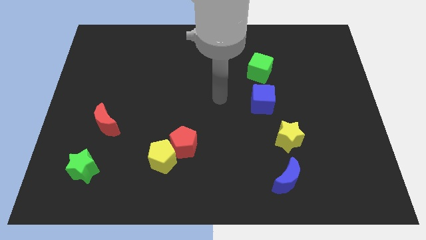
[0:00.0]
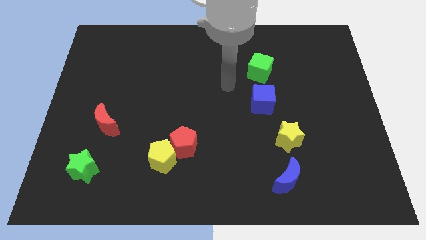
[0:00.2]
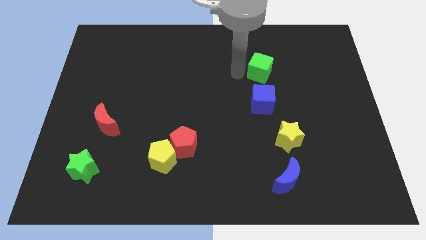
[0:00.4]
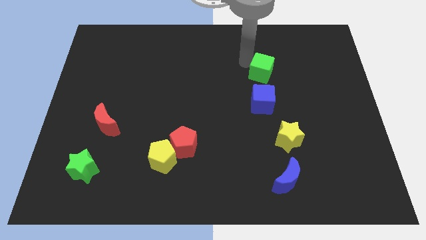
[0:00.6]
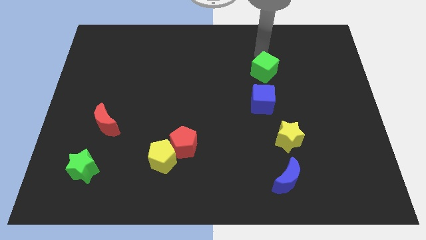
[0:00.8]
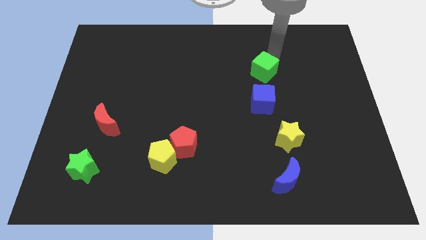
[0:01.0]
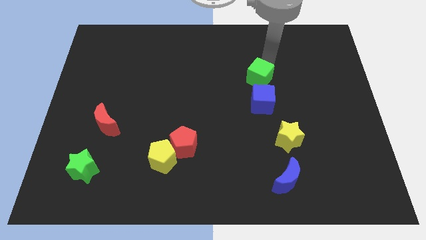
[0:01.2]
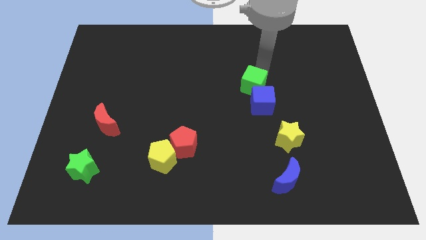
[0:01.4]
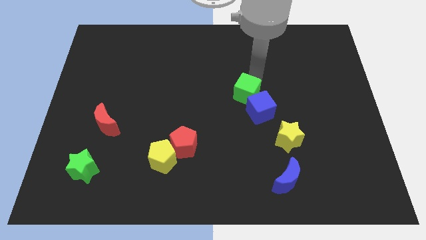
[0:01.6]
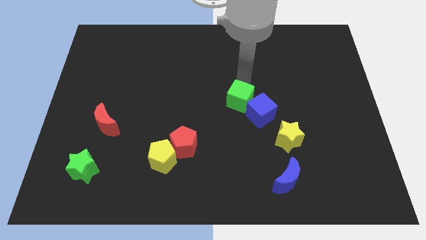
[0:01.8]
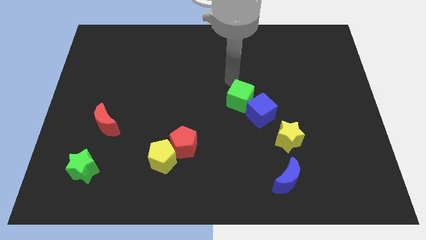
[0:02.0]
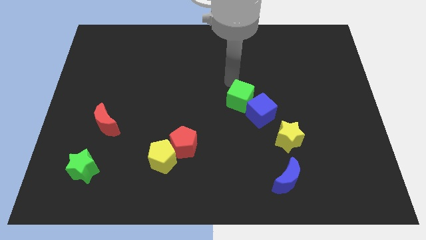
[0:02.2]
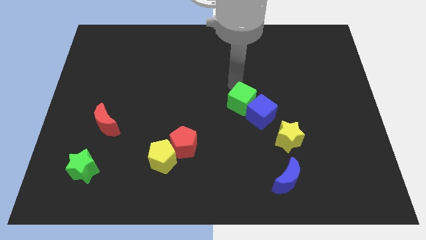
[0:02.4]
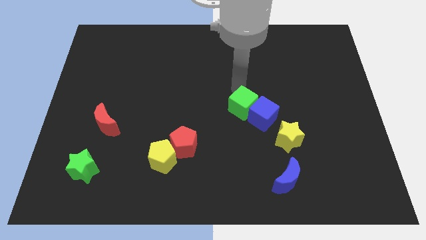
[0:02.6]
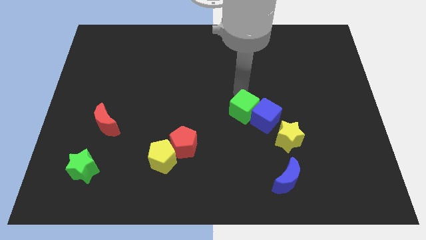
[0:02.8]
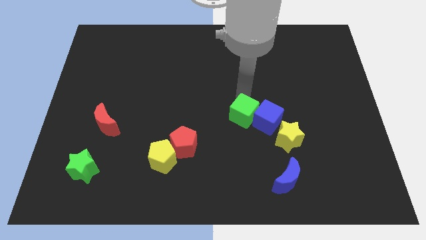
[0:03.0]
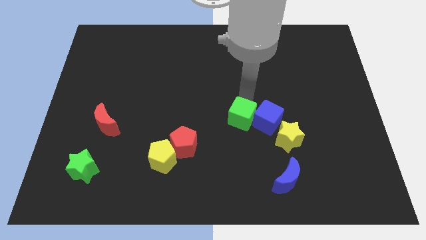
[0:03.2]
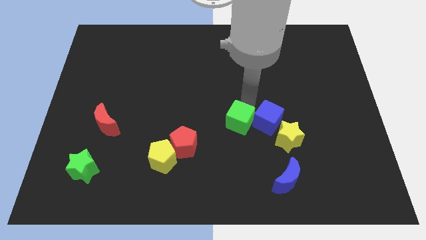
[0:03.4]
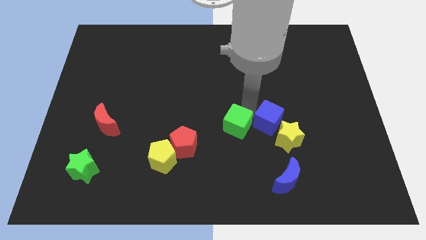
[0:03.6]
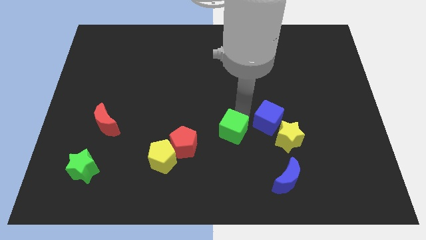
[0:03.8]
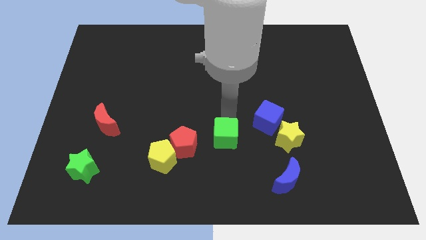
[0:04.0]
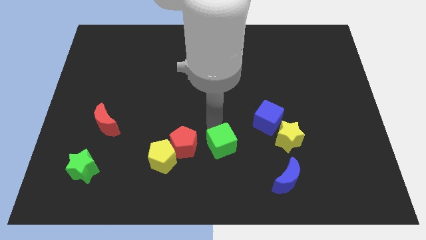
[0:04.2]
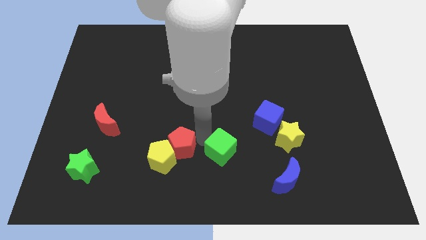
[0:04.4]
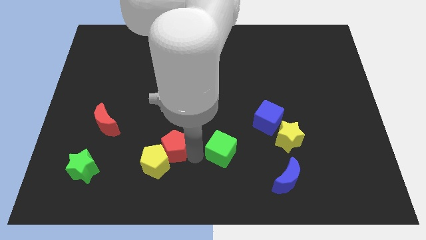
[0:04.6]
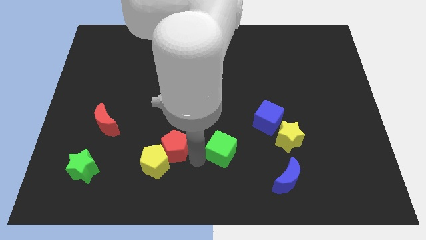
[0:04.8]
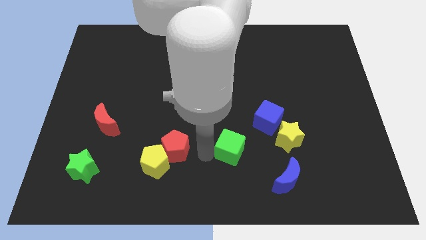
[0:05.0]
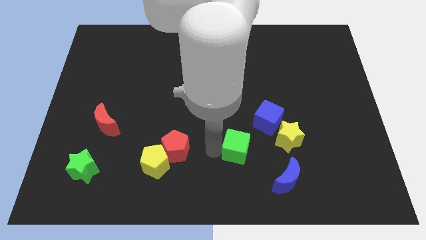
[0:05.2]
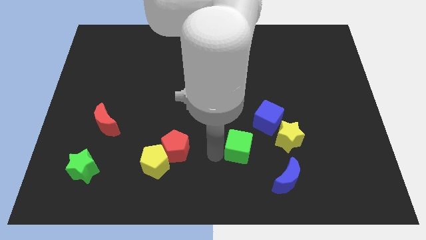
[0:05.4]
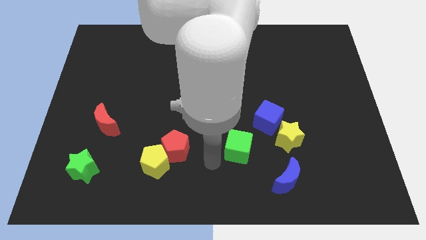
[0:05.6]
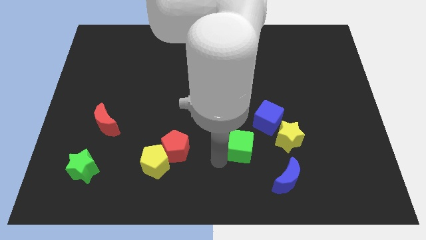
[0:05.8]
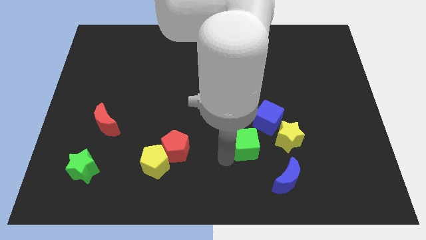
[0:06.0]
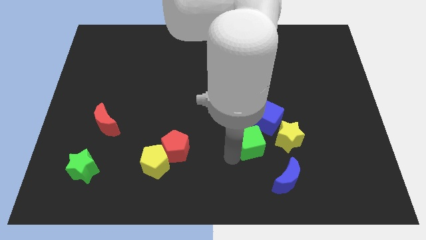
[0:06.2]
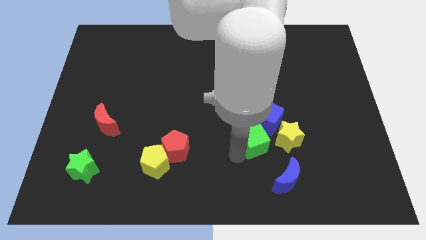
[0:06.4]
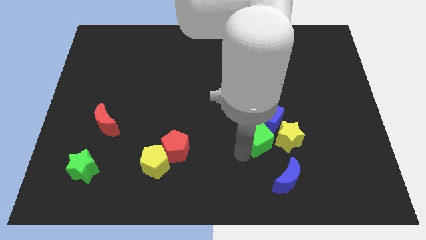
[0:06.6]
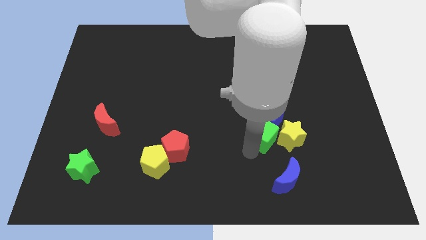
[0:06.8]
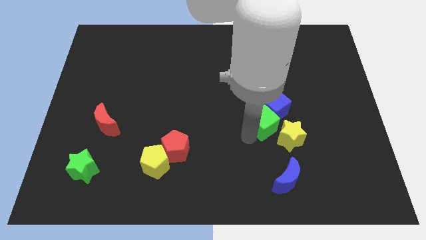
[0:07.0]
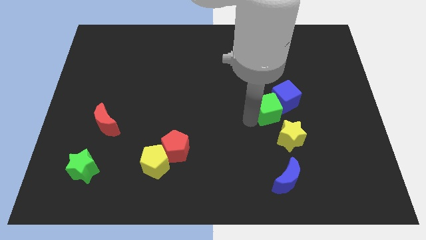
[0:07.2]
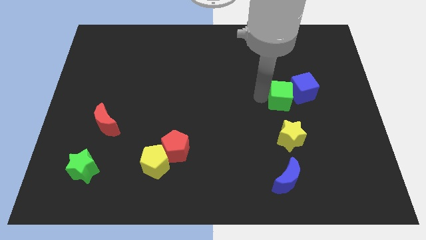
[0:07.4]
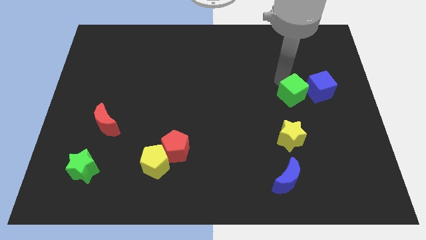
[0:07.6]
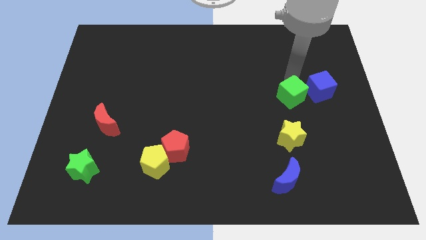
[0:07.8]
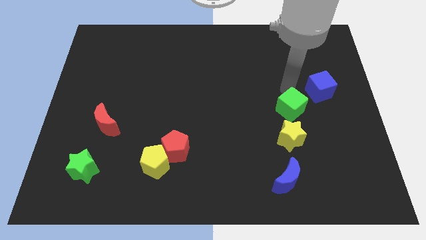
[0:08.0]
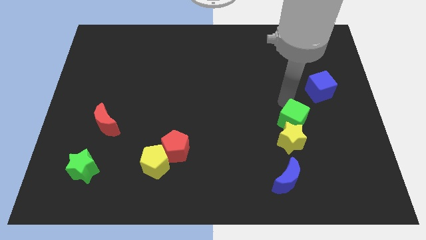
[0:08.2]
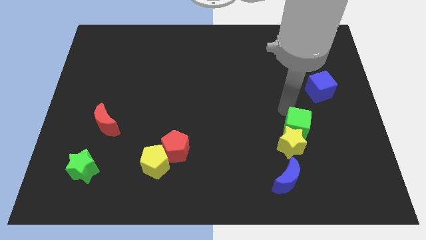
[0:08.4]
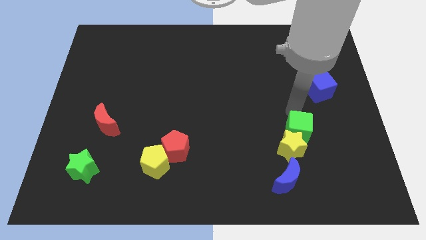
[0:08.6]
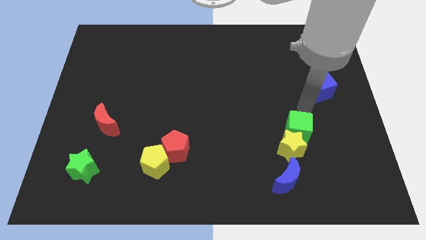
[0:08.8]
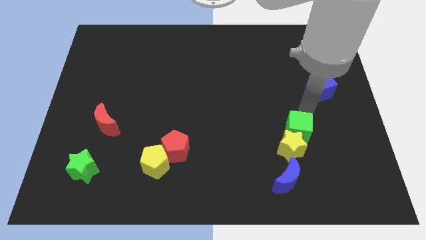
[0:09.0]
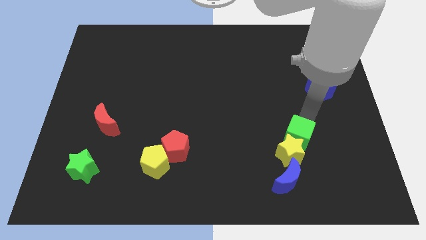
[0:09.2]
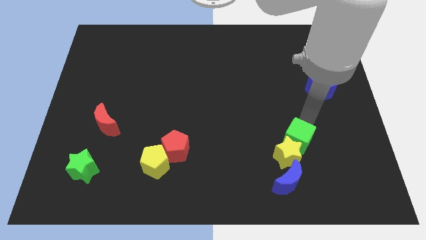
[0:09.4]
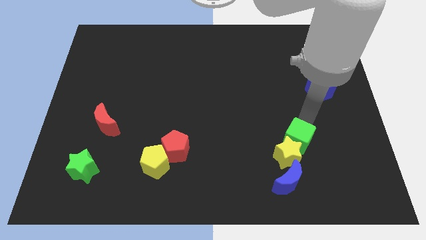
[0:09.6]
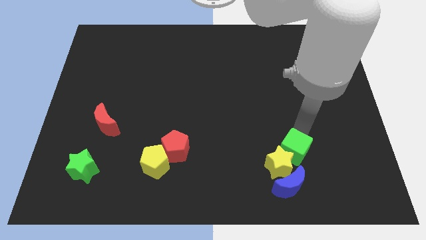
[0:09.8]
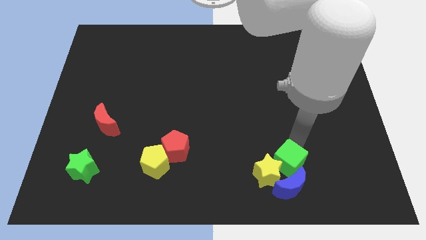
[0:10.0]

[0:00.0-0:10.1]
push the green cube close to the blue moon

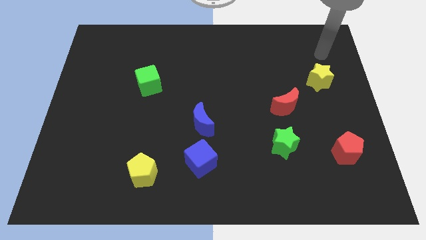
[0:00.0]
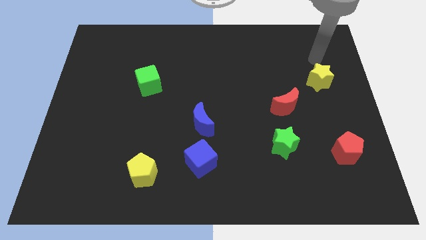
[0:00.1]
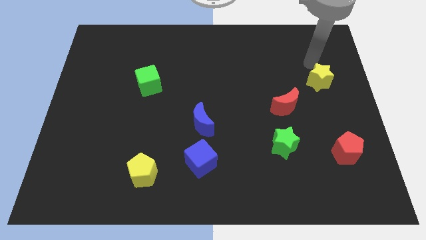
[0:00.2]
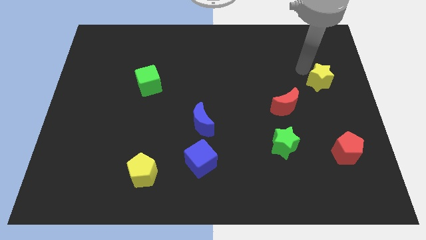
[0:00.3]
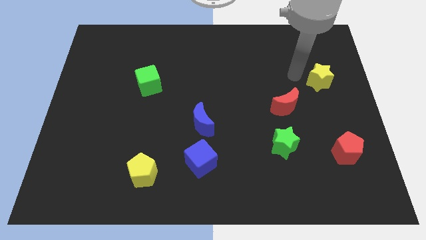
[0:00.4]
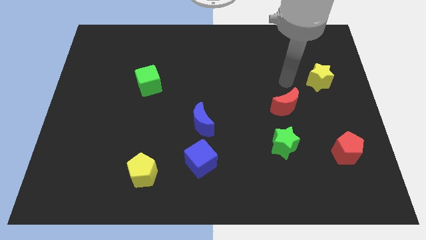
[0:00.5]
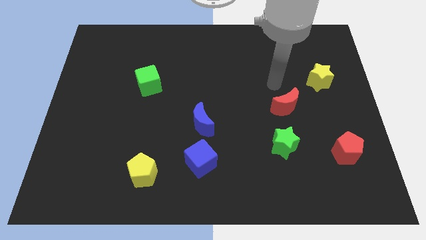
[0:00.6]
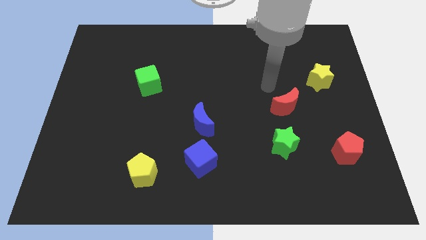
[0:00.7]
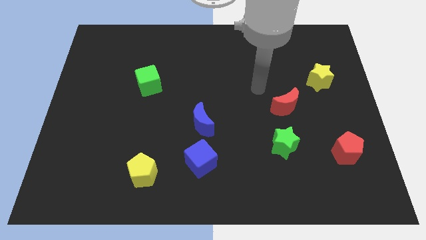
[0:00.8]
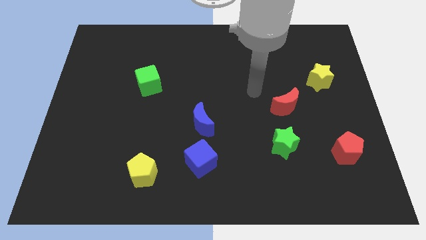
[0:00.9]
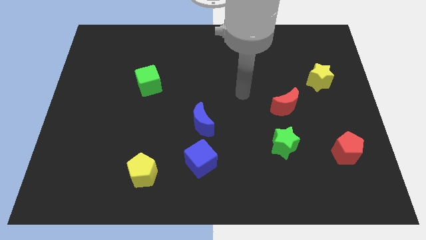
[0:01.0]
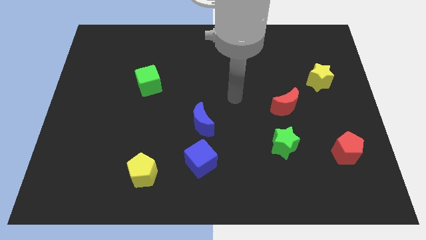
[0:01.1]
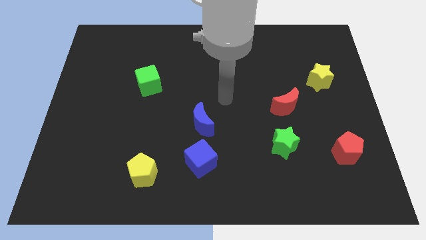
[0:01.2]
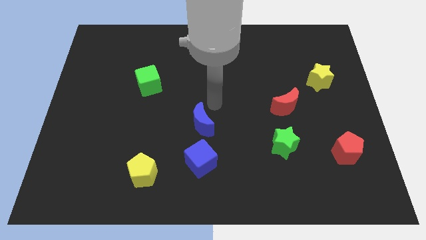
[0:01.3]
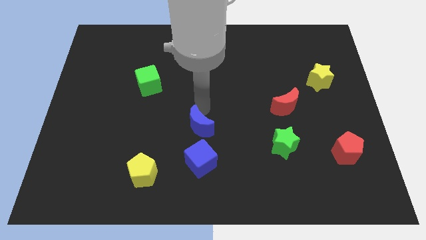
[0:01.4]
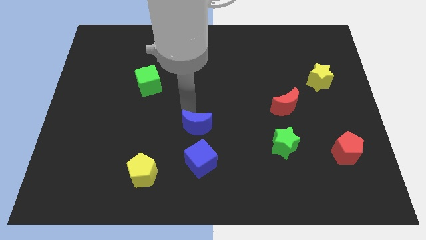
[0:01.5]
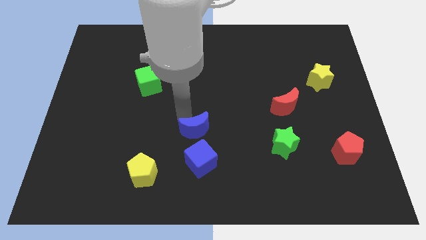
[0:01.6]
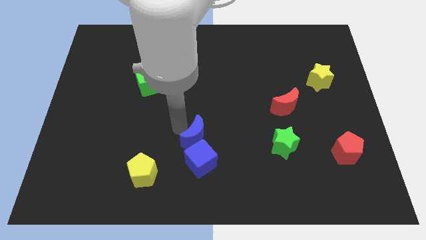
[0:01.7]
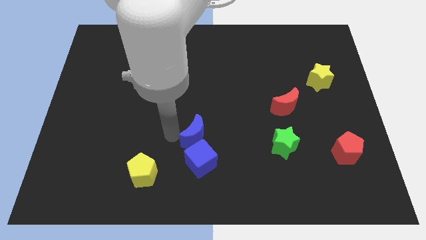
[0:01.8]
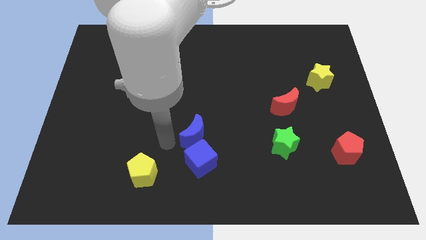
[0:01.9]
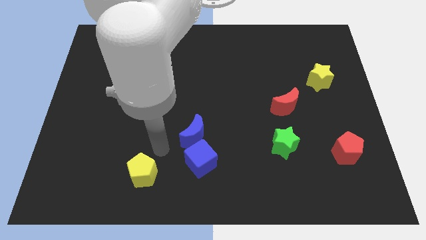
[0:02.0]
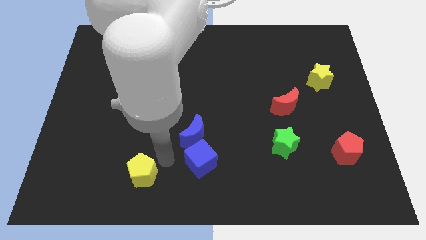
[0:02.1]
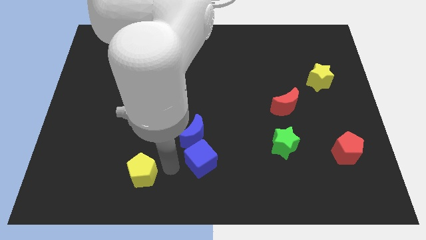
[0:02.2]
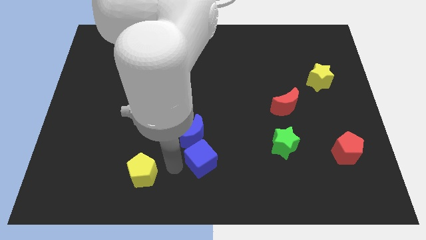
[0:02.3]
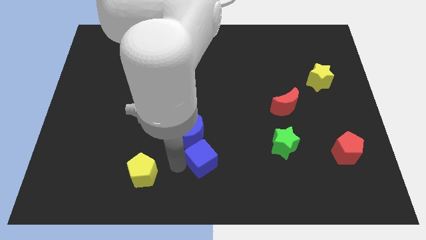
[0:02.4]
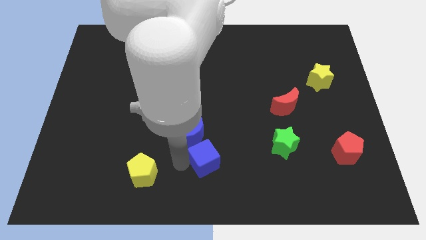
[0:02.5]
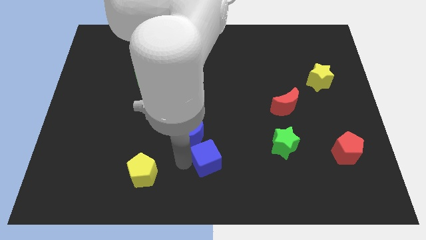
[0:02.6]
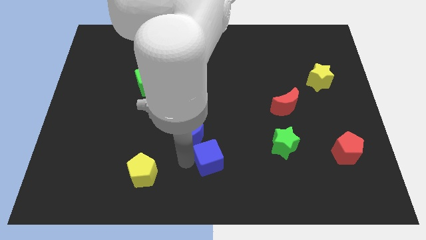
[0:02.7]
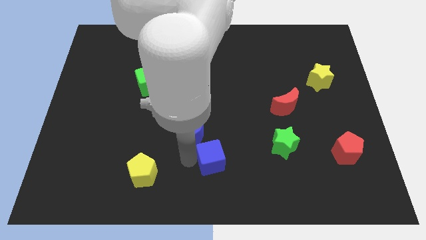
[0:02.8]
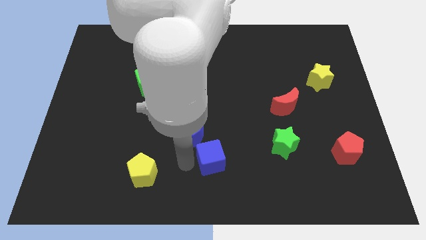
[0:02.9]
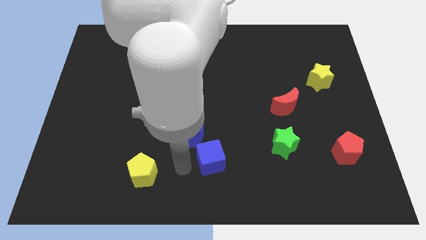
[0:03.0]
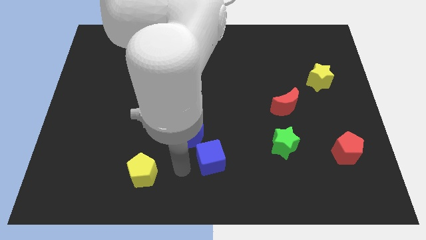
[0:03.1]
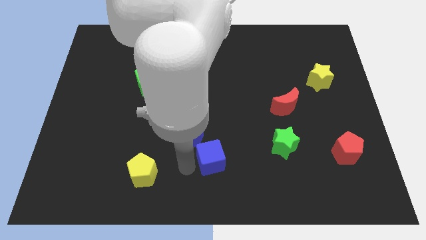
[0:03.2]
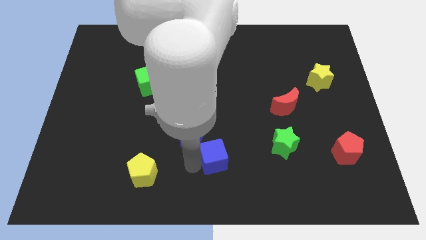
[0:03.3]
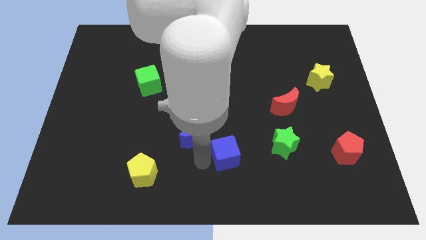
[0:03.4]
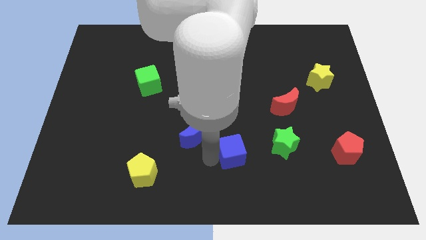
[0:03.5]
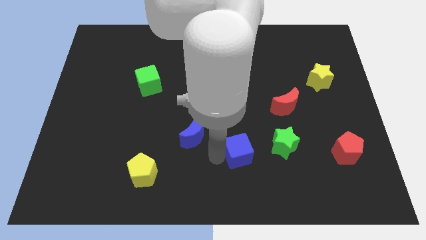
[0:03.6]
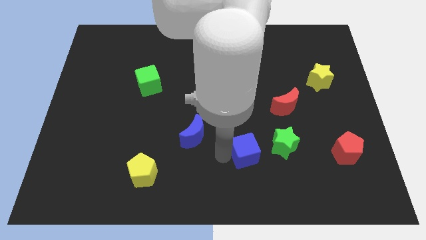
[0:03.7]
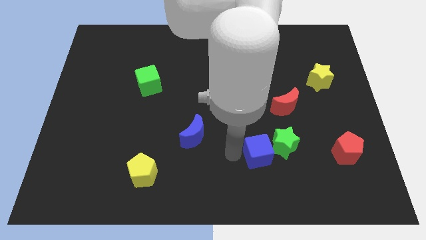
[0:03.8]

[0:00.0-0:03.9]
slide the blue cube towards the green star
